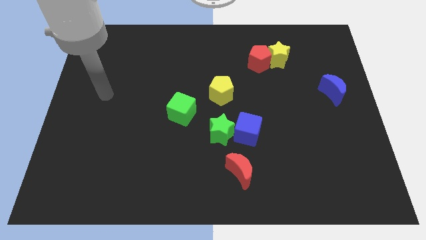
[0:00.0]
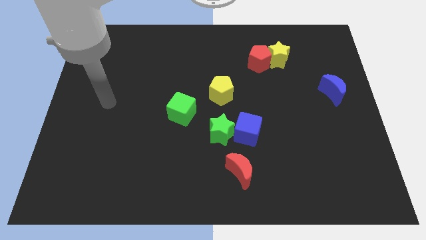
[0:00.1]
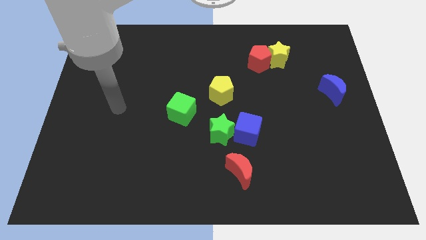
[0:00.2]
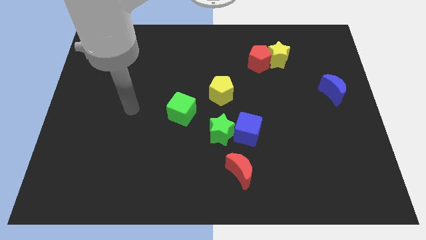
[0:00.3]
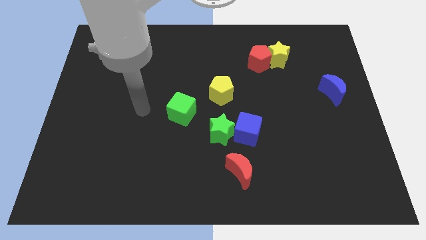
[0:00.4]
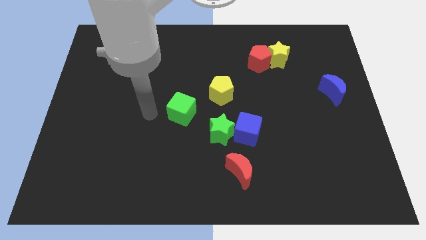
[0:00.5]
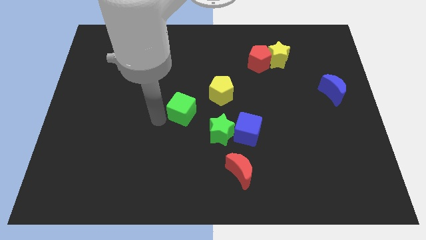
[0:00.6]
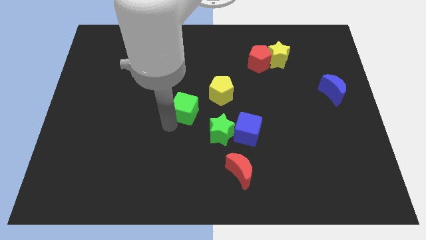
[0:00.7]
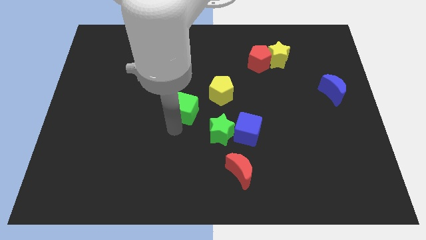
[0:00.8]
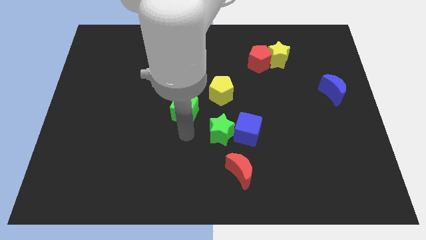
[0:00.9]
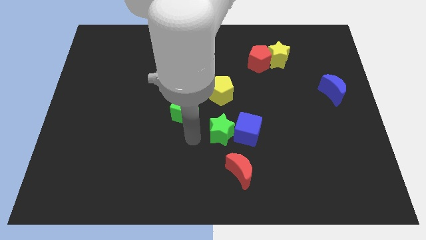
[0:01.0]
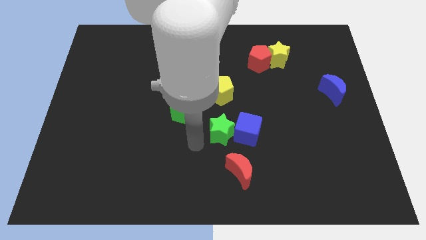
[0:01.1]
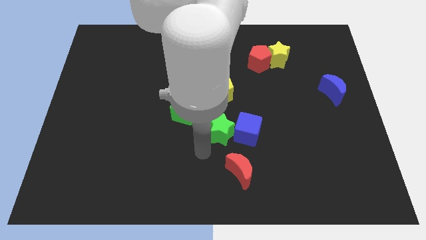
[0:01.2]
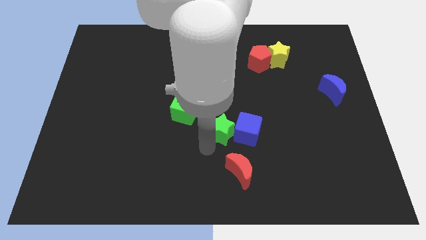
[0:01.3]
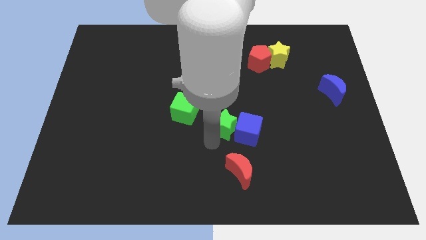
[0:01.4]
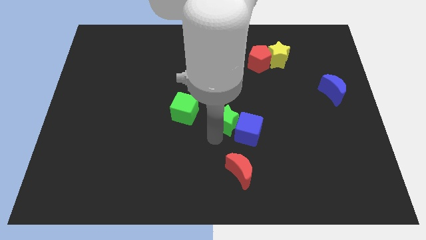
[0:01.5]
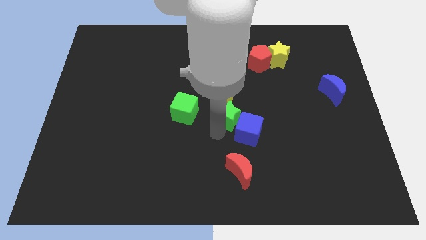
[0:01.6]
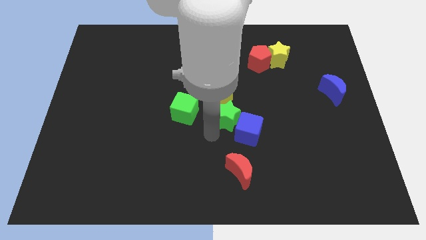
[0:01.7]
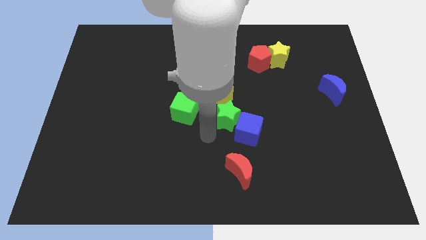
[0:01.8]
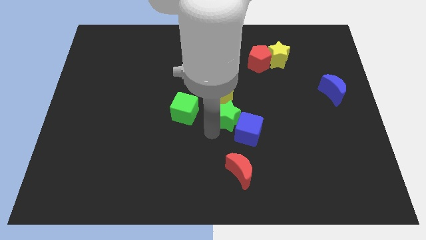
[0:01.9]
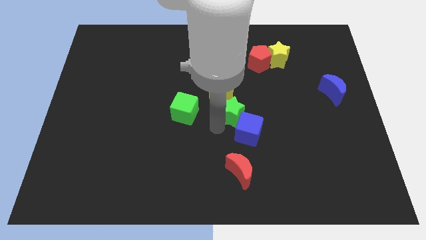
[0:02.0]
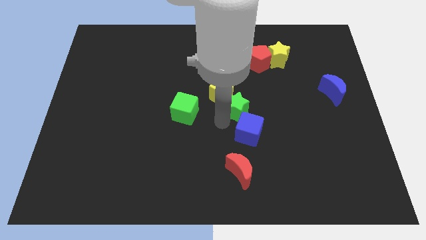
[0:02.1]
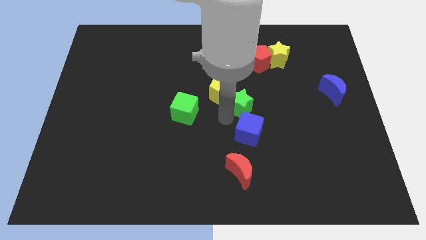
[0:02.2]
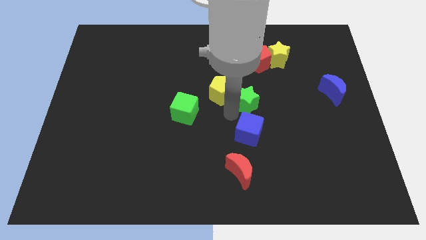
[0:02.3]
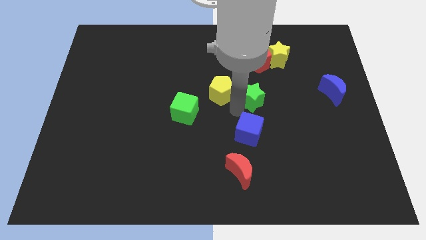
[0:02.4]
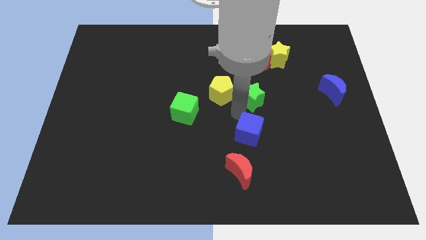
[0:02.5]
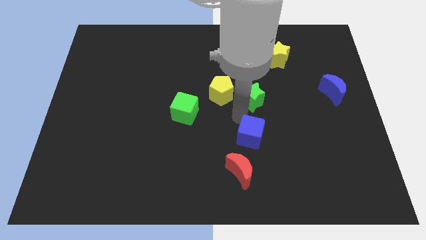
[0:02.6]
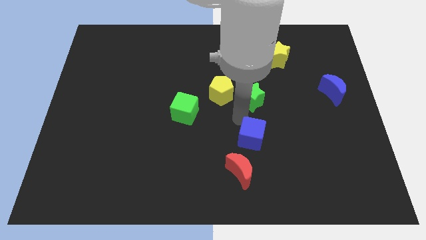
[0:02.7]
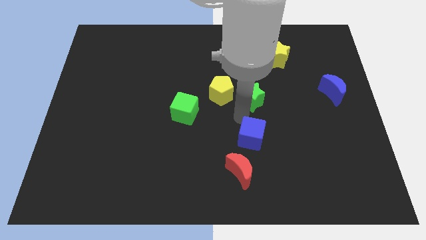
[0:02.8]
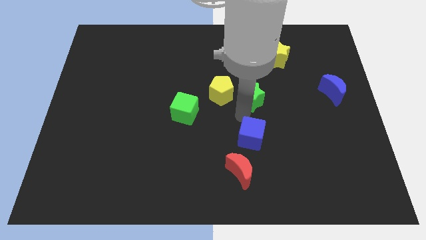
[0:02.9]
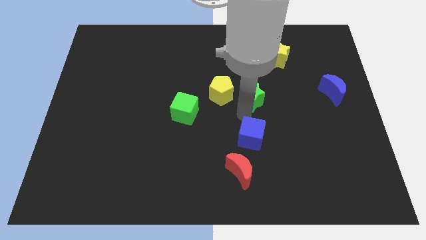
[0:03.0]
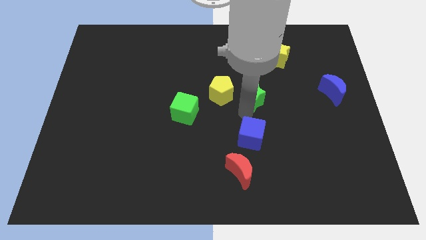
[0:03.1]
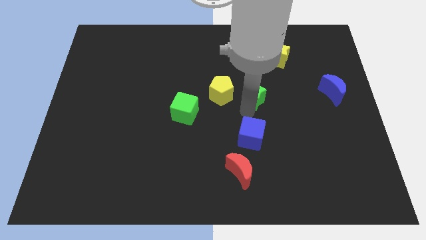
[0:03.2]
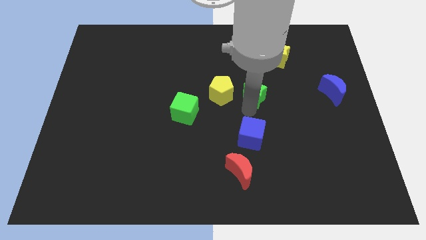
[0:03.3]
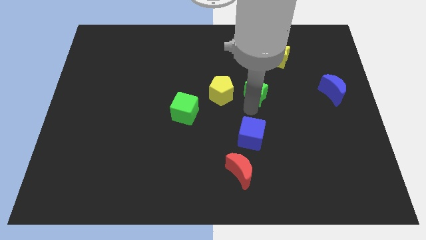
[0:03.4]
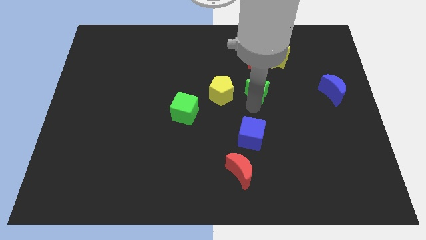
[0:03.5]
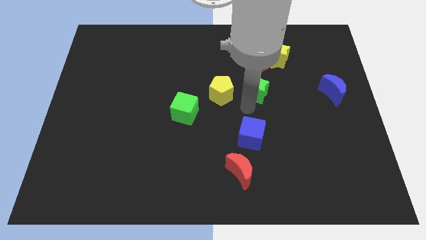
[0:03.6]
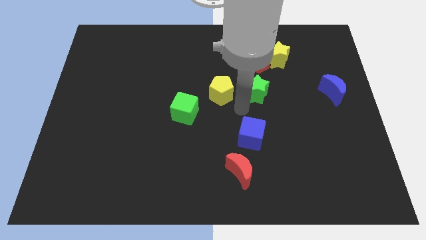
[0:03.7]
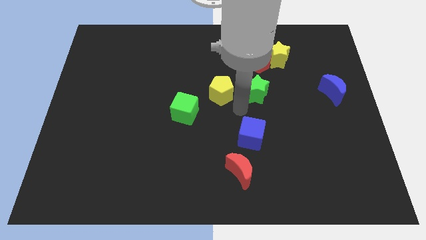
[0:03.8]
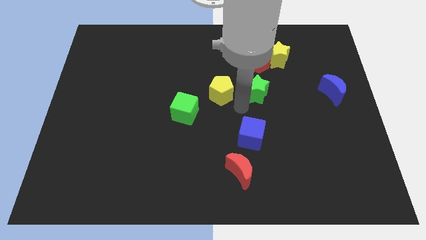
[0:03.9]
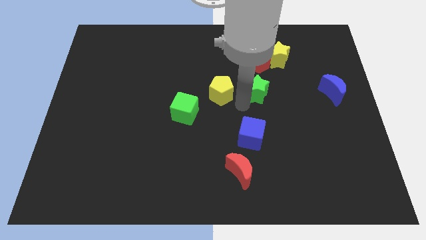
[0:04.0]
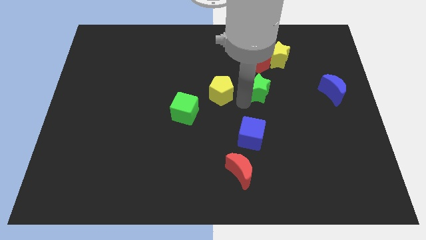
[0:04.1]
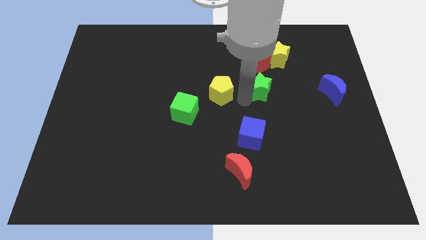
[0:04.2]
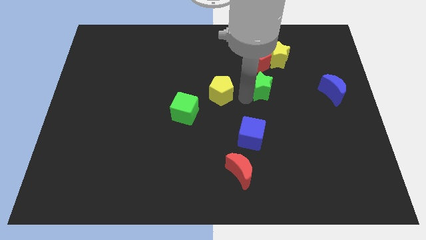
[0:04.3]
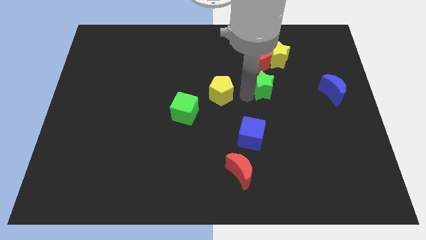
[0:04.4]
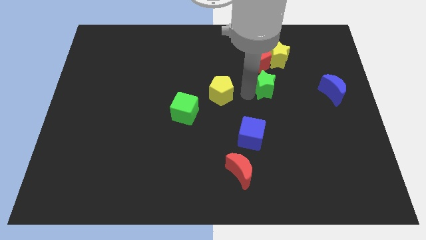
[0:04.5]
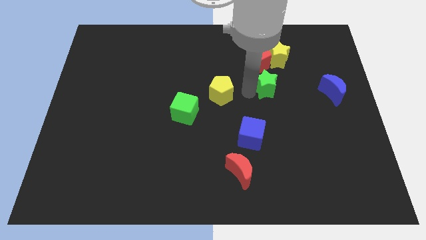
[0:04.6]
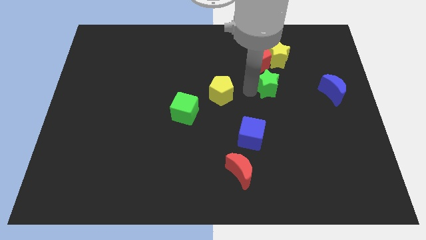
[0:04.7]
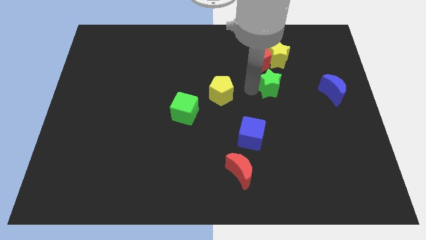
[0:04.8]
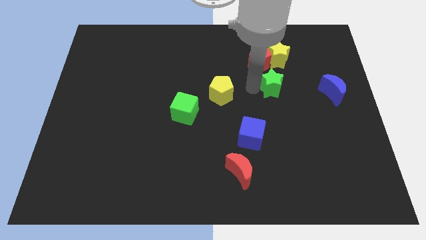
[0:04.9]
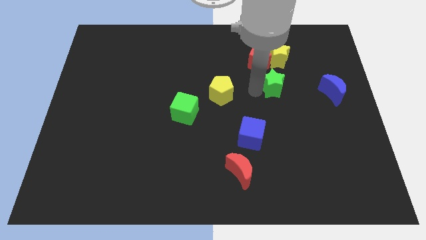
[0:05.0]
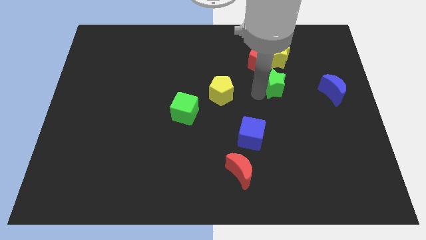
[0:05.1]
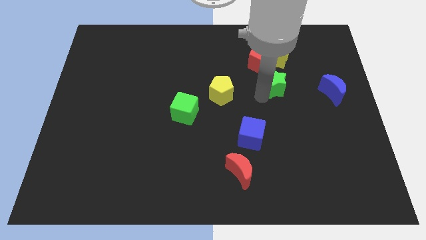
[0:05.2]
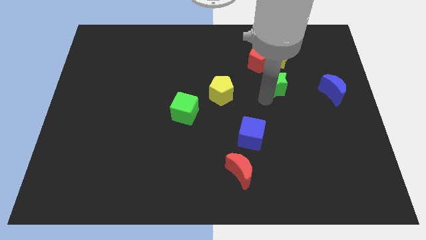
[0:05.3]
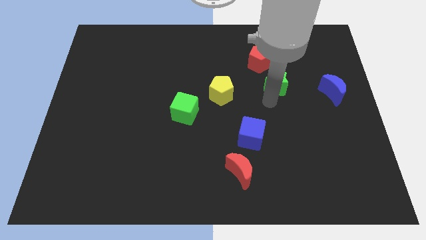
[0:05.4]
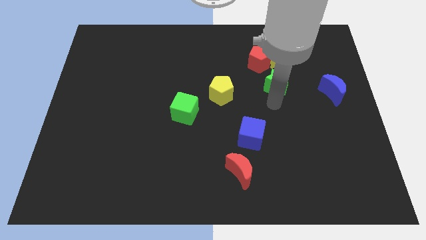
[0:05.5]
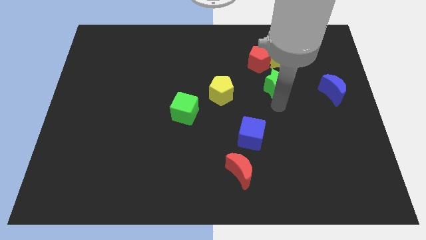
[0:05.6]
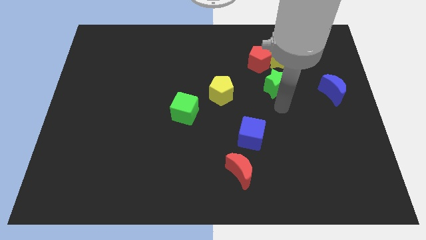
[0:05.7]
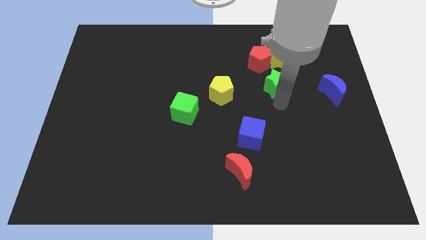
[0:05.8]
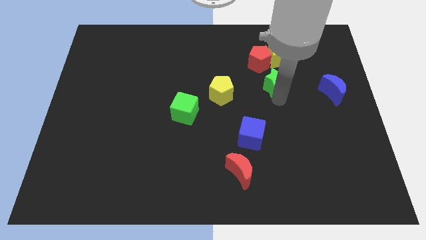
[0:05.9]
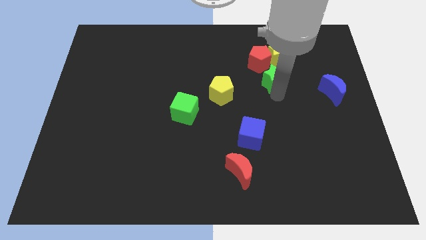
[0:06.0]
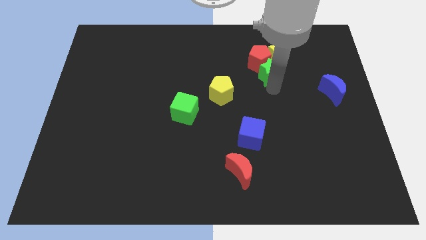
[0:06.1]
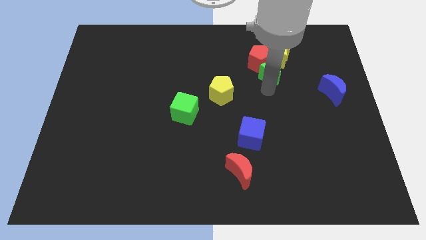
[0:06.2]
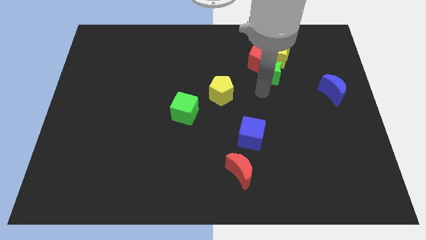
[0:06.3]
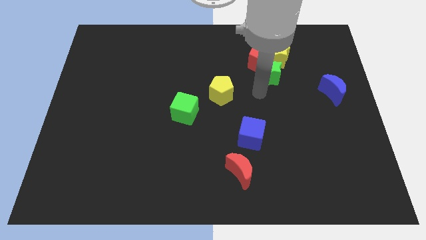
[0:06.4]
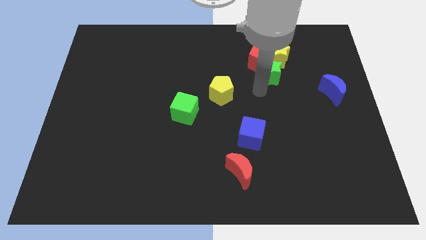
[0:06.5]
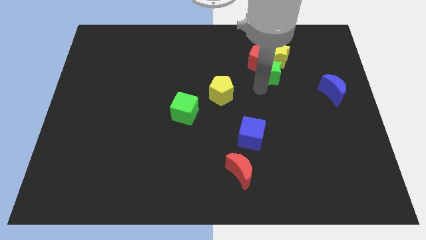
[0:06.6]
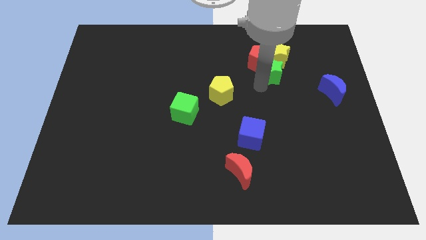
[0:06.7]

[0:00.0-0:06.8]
put the green star close to the yellow star

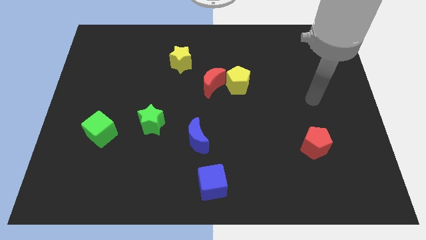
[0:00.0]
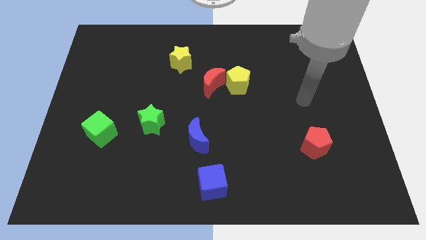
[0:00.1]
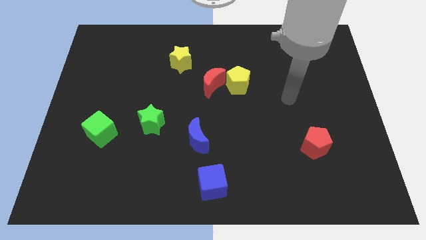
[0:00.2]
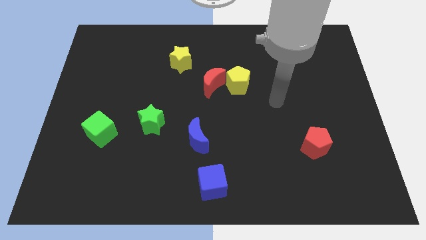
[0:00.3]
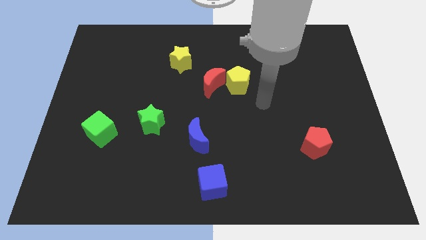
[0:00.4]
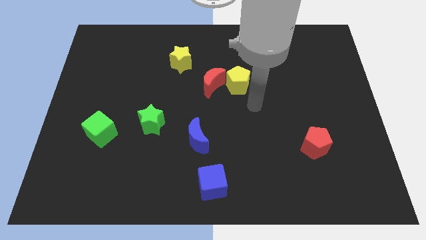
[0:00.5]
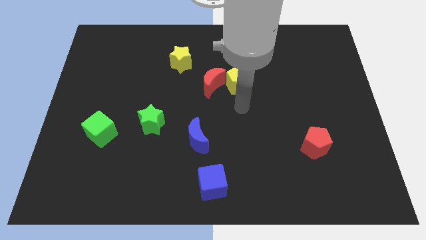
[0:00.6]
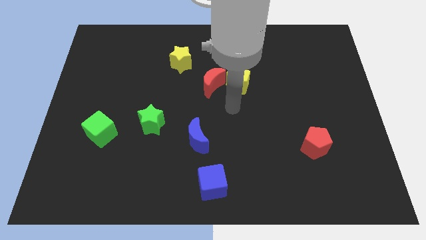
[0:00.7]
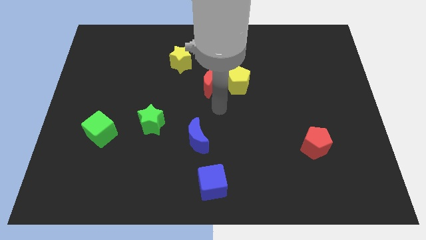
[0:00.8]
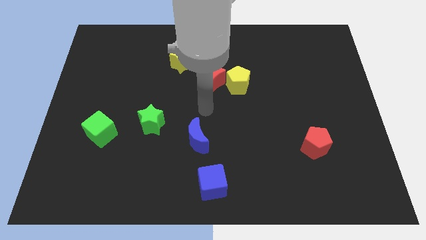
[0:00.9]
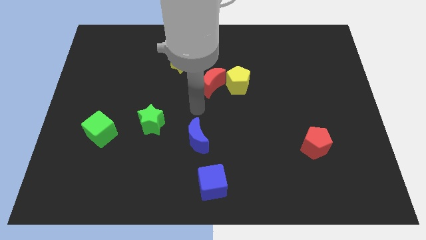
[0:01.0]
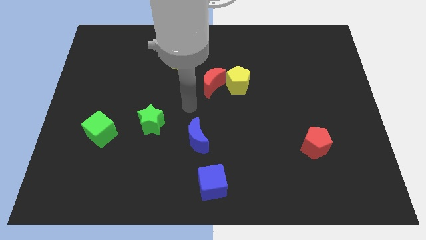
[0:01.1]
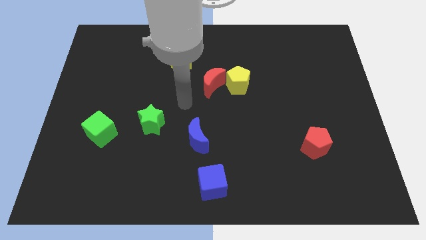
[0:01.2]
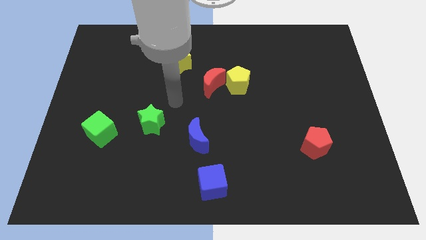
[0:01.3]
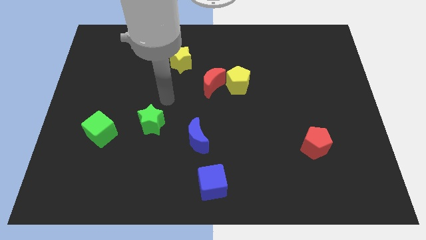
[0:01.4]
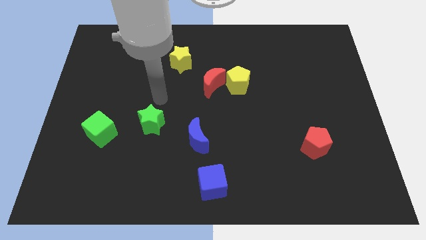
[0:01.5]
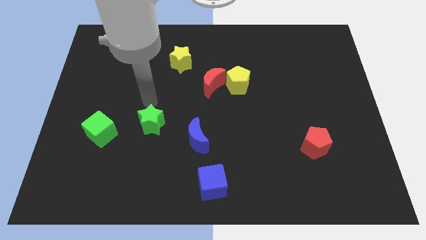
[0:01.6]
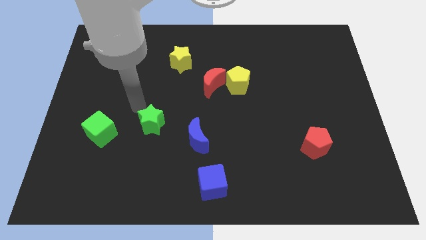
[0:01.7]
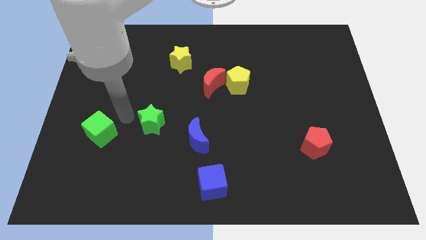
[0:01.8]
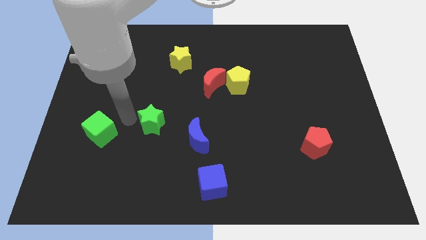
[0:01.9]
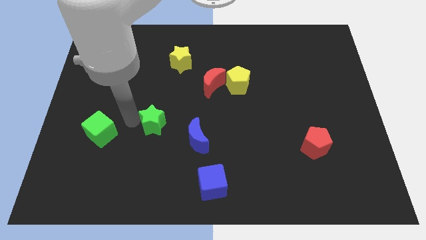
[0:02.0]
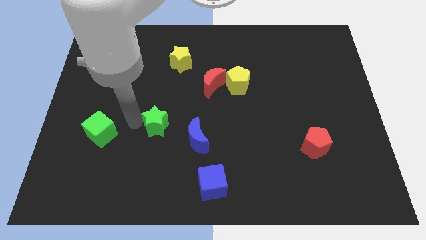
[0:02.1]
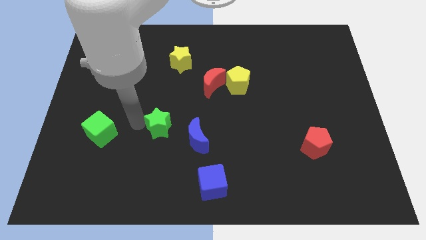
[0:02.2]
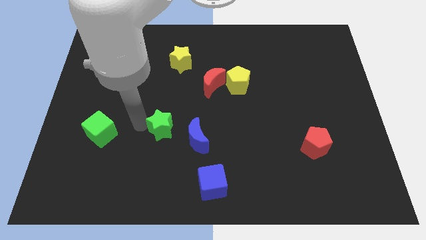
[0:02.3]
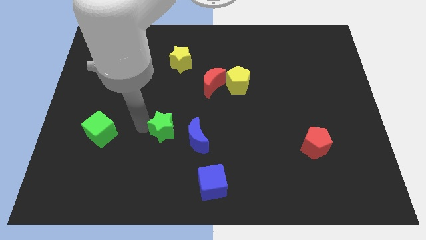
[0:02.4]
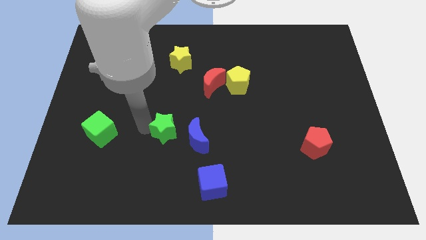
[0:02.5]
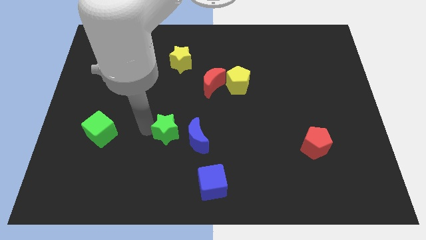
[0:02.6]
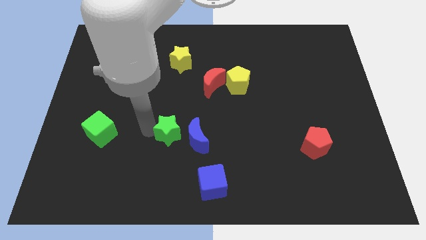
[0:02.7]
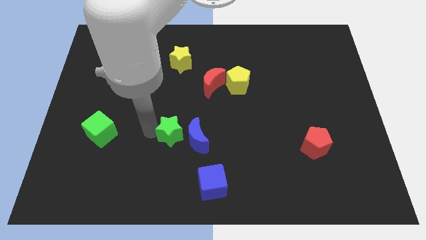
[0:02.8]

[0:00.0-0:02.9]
slide the green star close to the blue moon
